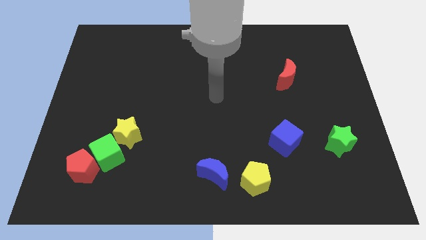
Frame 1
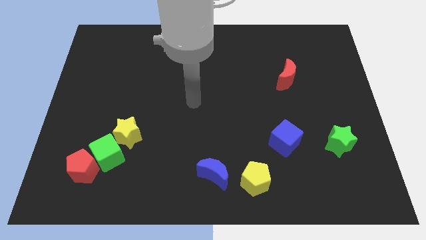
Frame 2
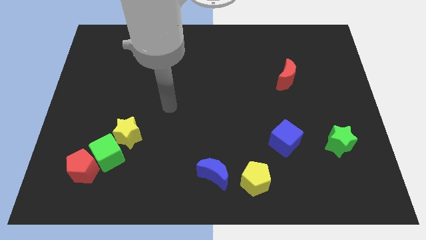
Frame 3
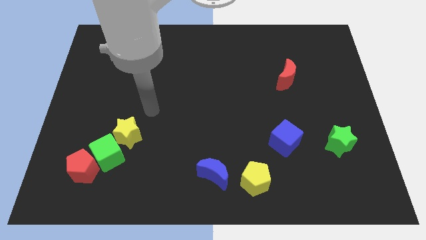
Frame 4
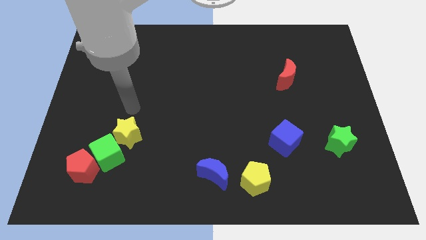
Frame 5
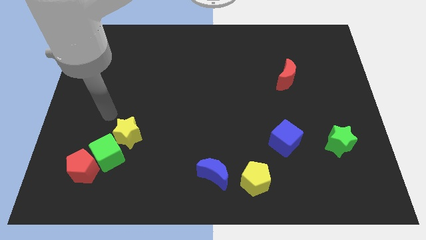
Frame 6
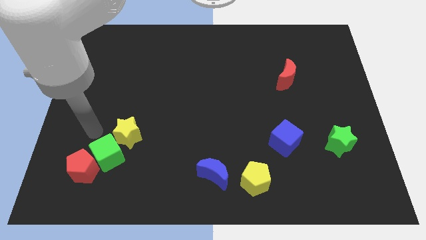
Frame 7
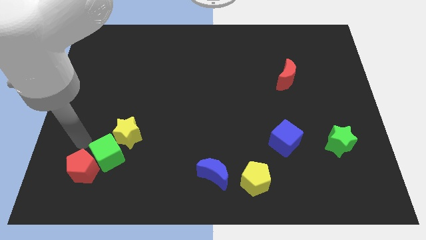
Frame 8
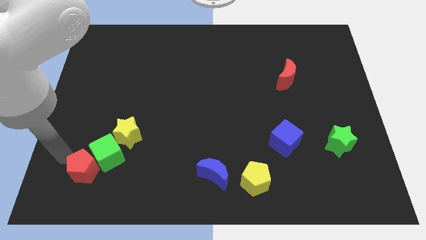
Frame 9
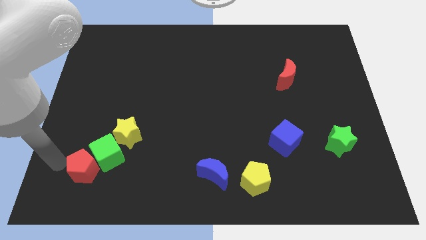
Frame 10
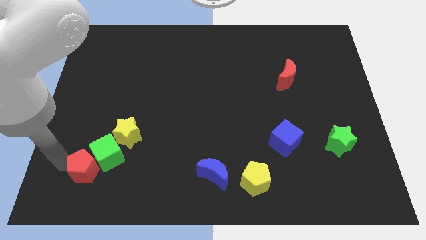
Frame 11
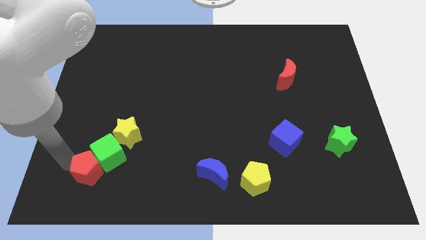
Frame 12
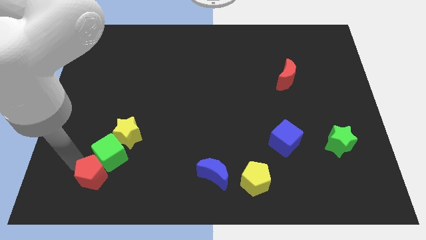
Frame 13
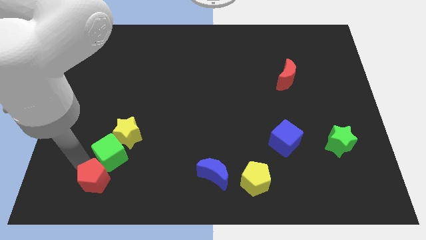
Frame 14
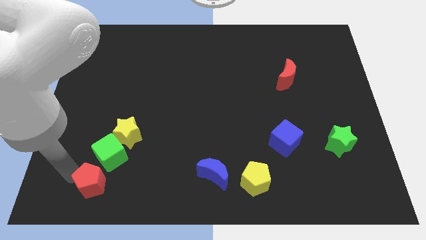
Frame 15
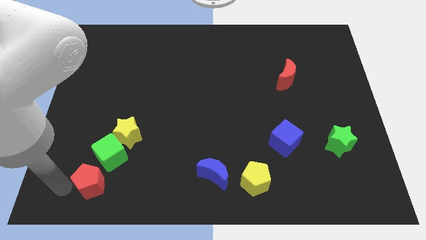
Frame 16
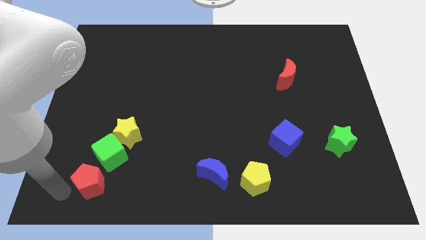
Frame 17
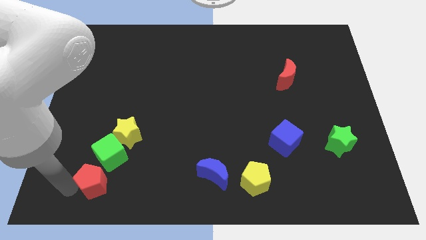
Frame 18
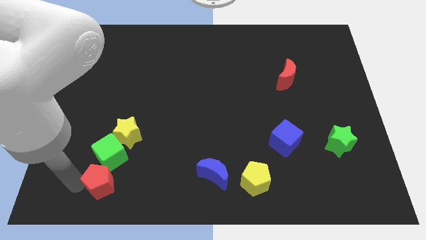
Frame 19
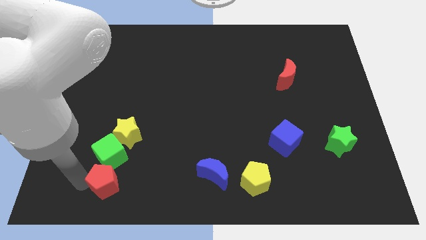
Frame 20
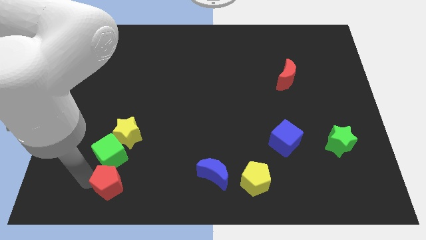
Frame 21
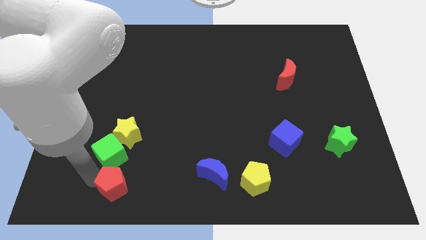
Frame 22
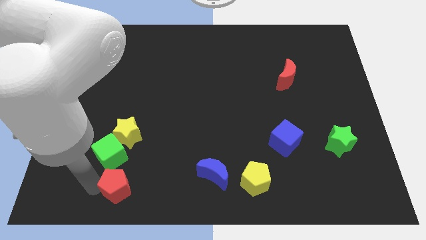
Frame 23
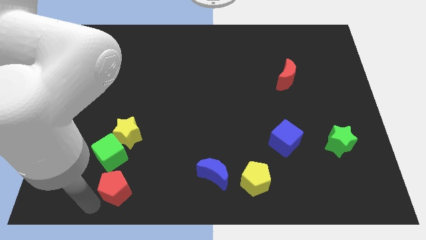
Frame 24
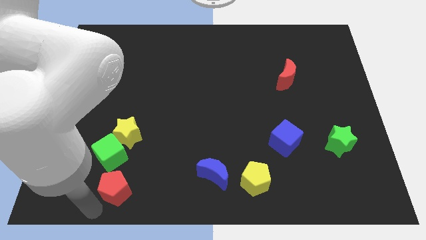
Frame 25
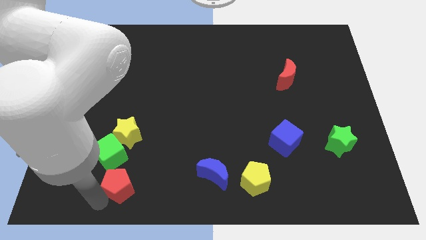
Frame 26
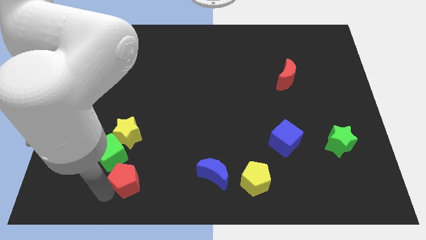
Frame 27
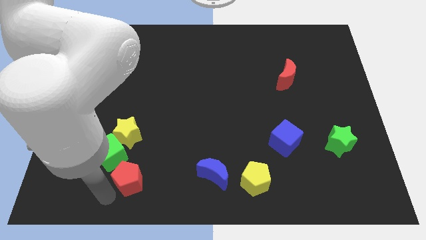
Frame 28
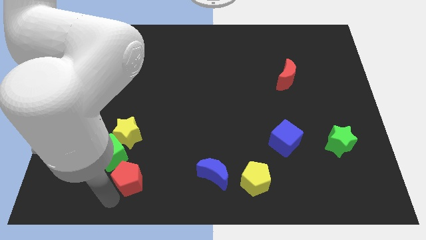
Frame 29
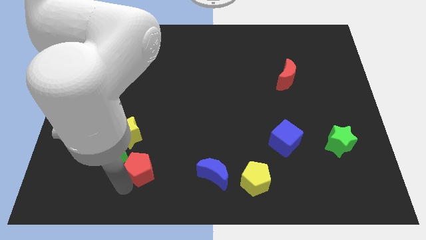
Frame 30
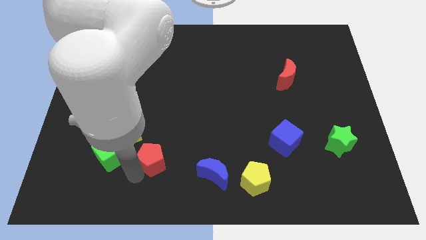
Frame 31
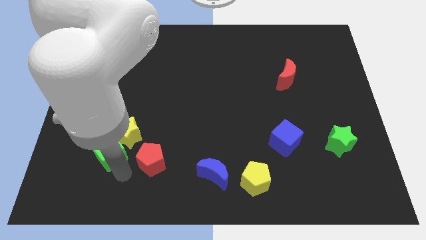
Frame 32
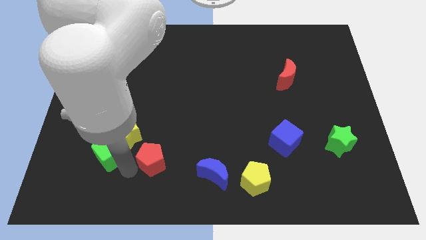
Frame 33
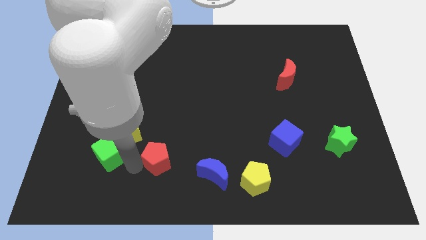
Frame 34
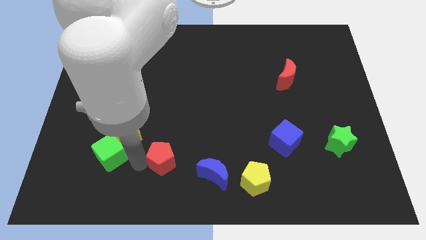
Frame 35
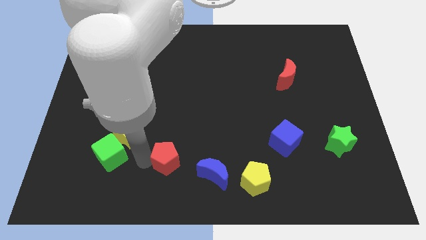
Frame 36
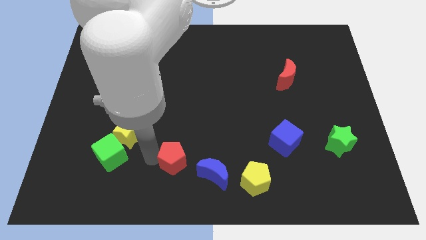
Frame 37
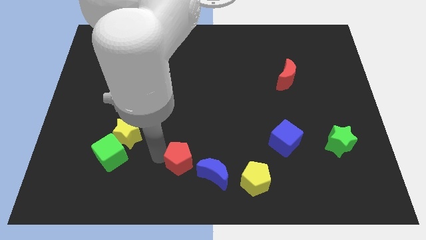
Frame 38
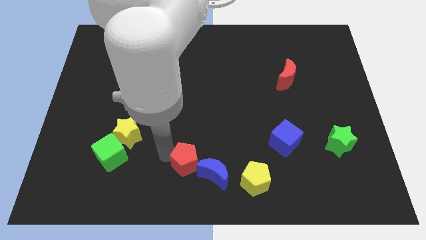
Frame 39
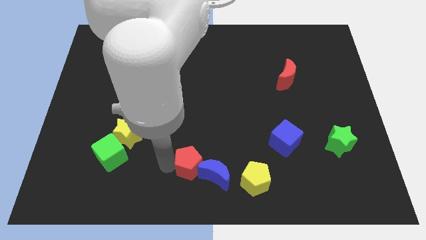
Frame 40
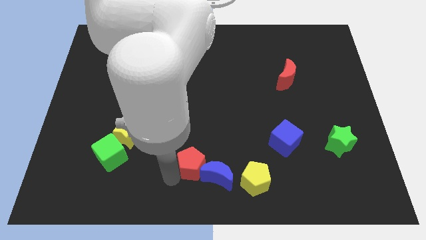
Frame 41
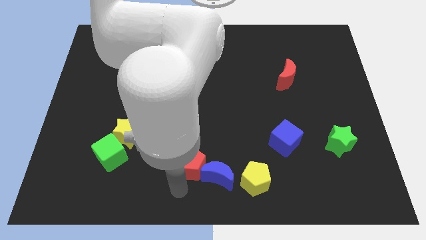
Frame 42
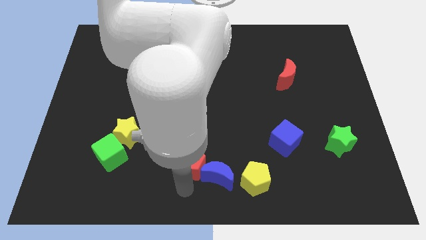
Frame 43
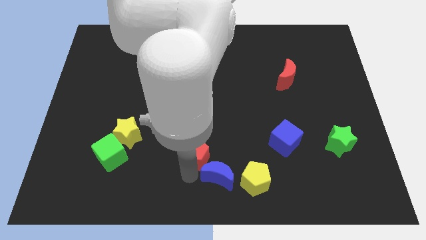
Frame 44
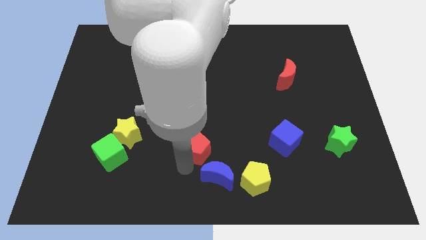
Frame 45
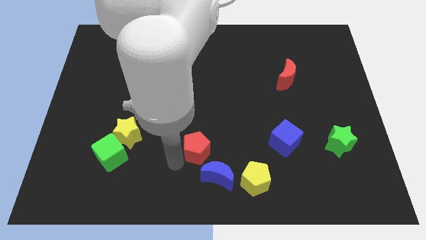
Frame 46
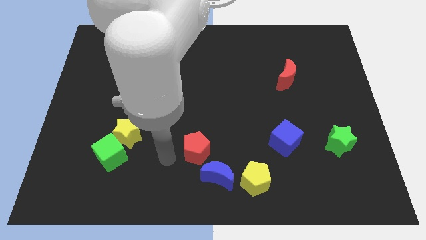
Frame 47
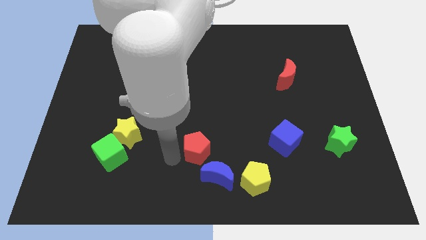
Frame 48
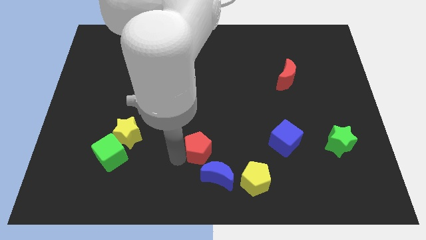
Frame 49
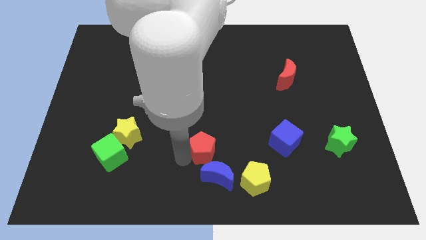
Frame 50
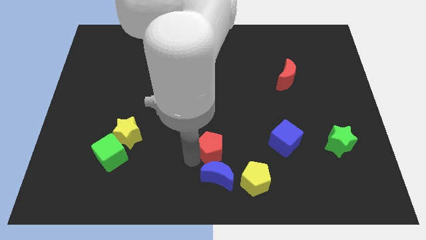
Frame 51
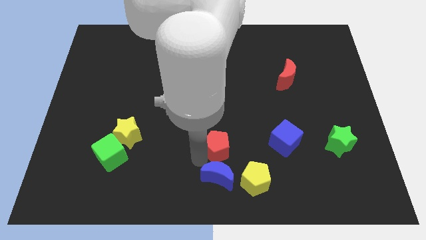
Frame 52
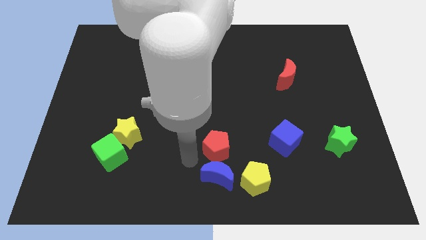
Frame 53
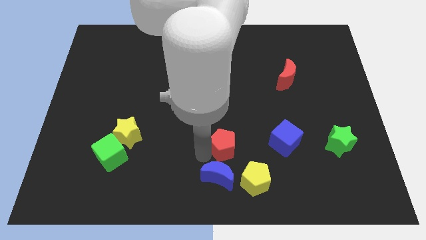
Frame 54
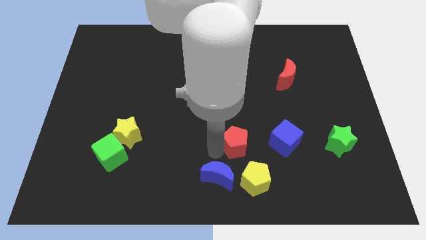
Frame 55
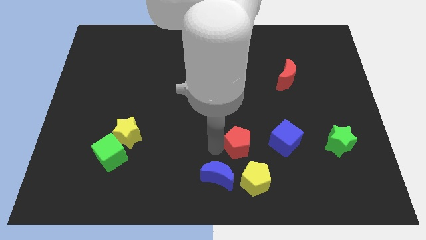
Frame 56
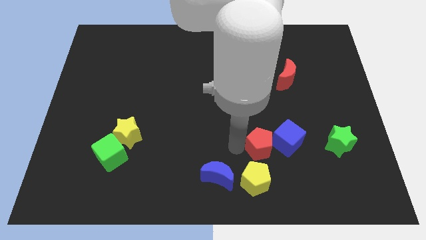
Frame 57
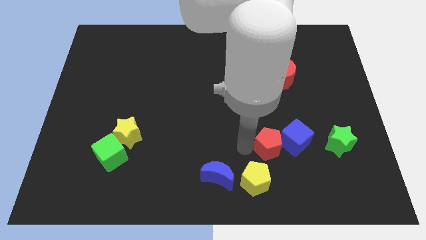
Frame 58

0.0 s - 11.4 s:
move the red pentagon next to the blue cube

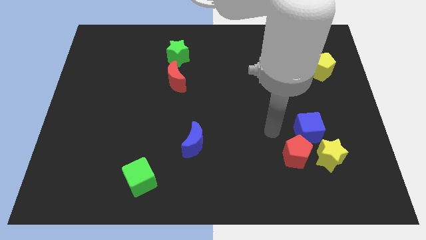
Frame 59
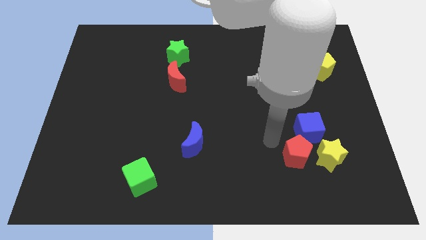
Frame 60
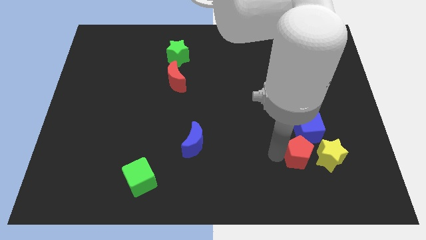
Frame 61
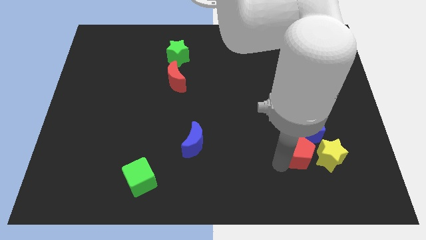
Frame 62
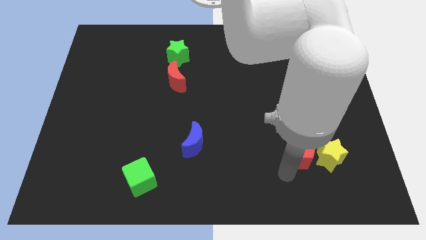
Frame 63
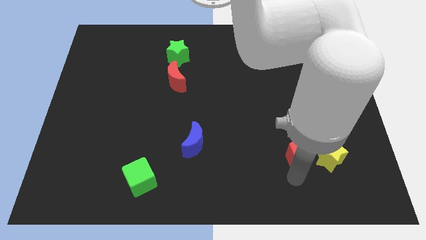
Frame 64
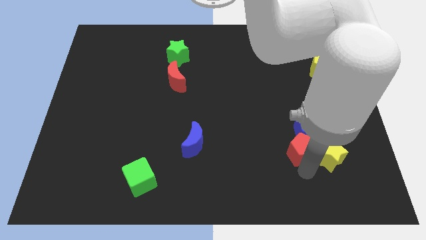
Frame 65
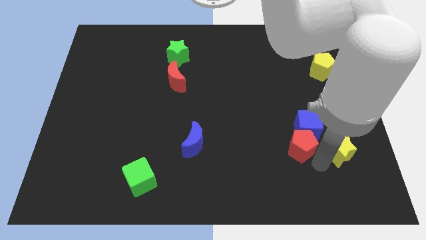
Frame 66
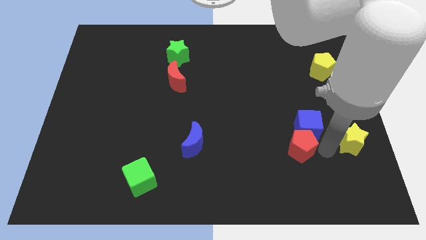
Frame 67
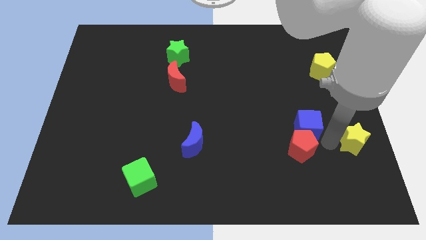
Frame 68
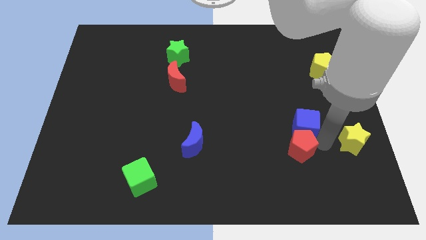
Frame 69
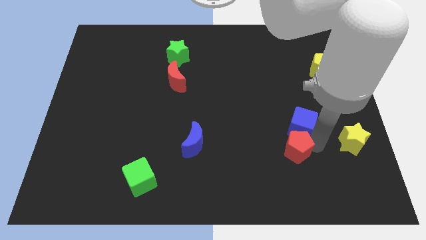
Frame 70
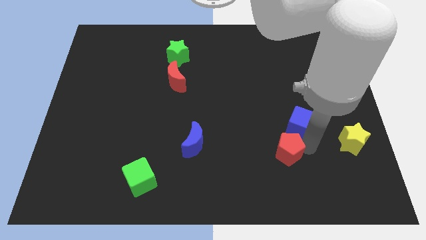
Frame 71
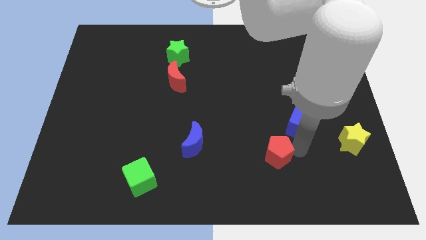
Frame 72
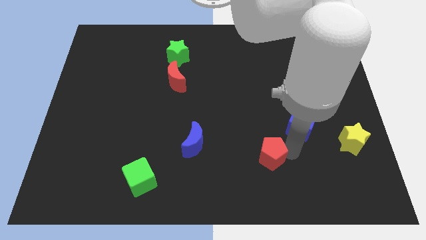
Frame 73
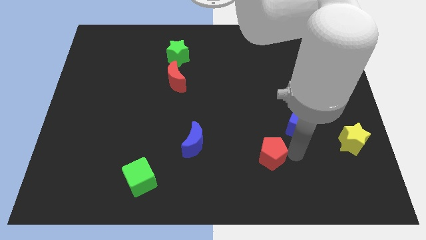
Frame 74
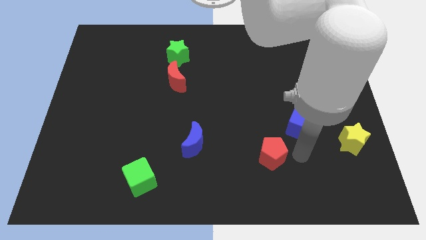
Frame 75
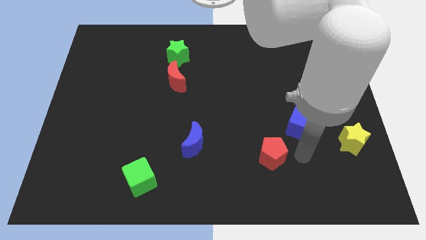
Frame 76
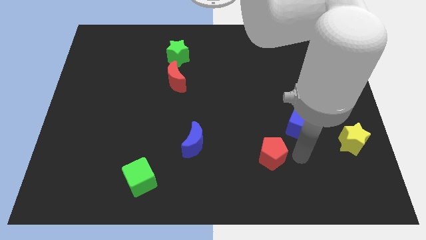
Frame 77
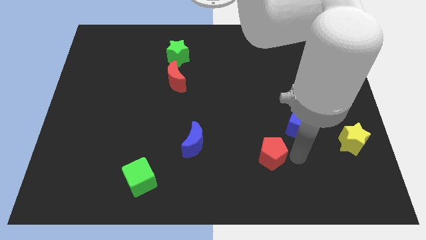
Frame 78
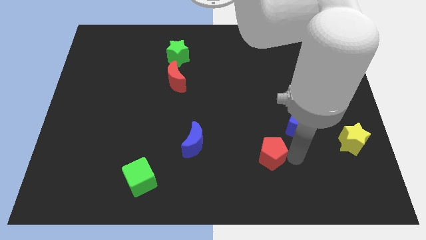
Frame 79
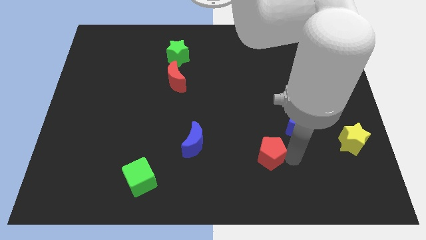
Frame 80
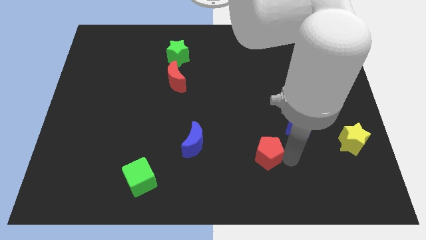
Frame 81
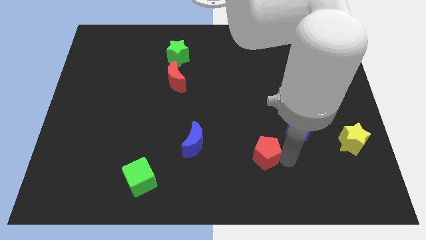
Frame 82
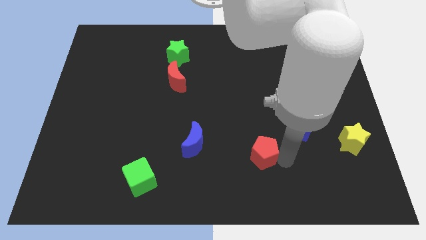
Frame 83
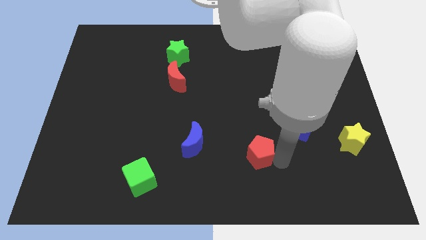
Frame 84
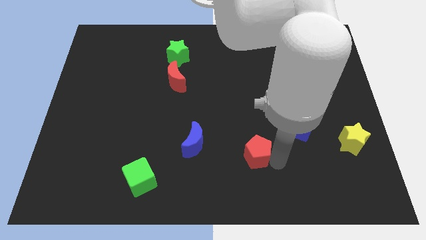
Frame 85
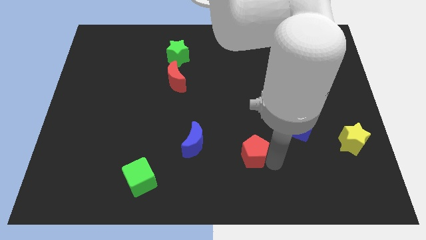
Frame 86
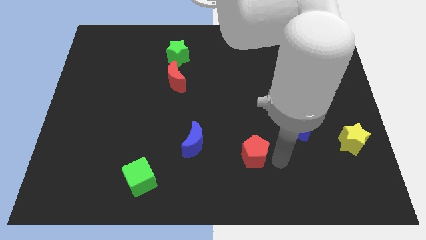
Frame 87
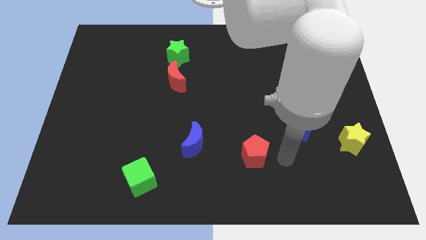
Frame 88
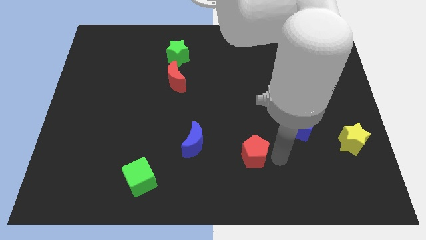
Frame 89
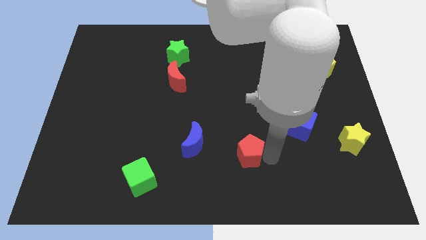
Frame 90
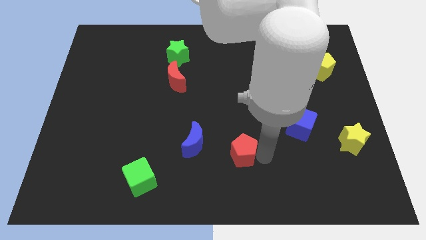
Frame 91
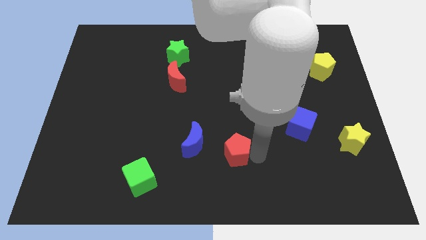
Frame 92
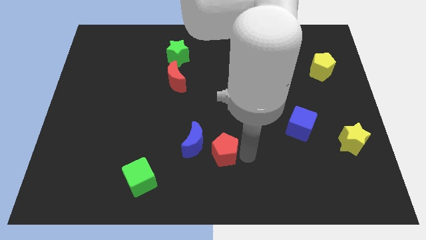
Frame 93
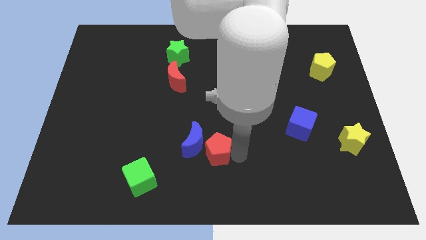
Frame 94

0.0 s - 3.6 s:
put the red pentagon next to the blue moon
